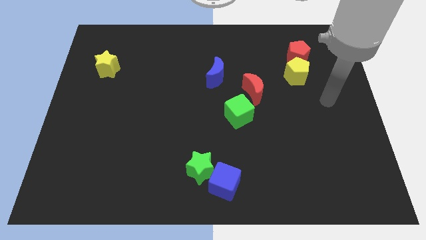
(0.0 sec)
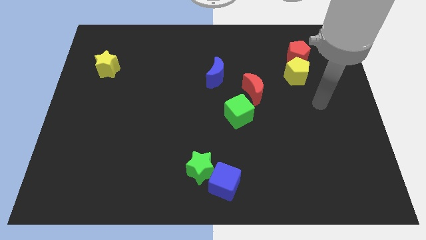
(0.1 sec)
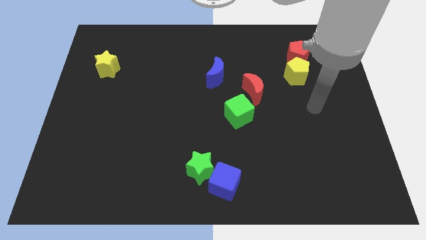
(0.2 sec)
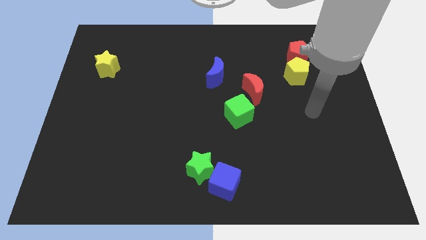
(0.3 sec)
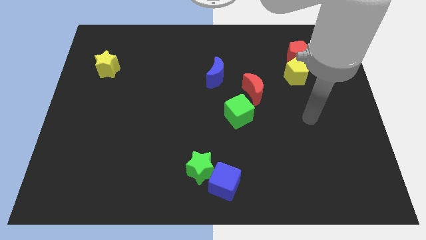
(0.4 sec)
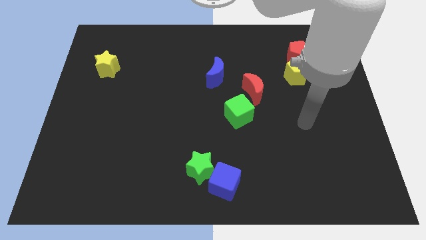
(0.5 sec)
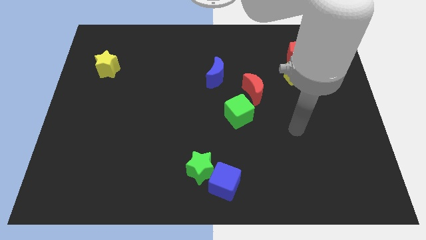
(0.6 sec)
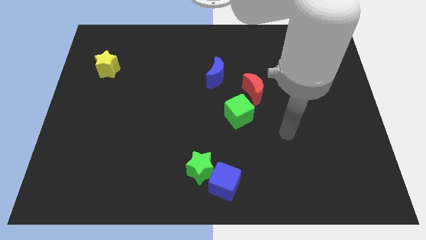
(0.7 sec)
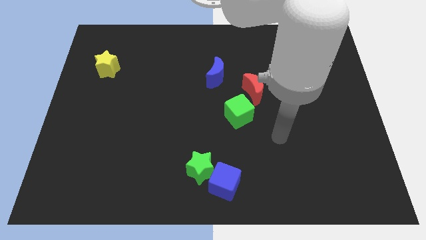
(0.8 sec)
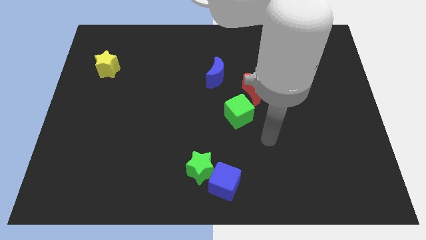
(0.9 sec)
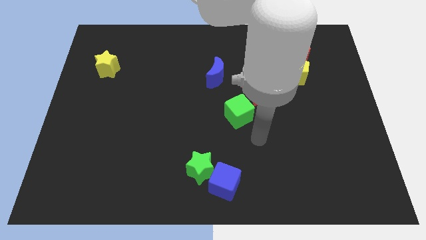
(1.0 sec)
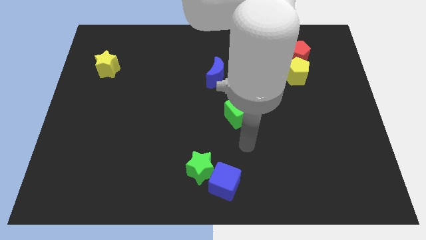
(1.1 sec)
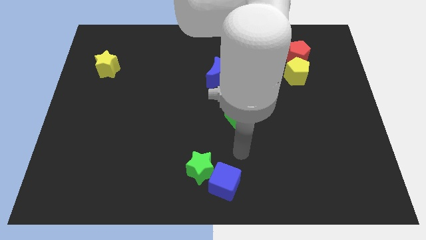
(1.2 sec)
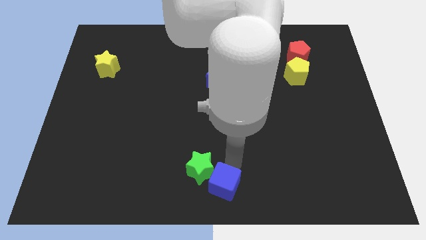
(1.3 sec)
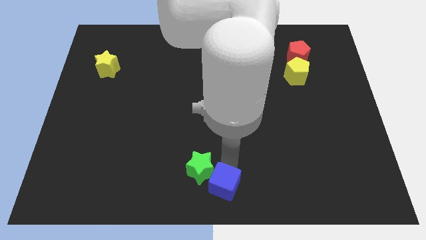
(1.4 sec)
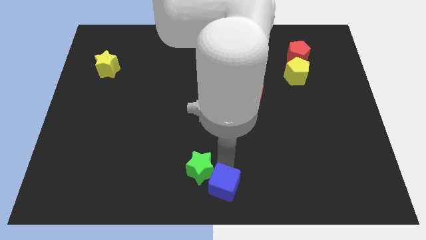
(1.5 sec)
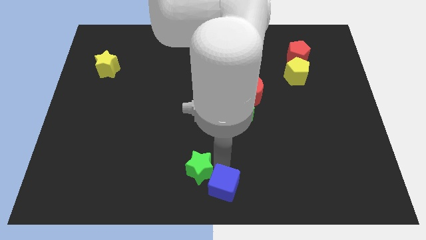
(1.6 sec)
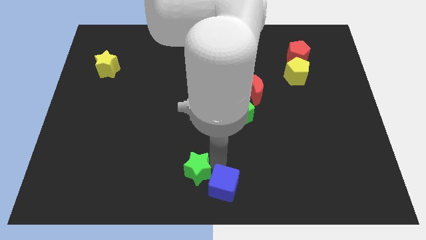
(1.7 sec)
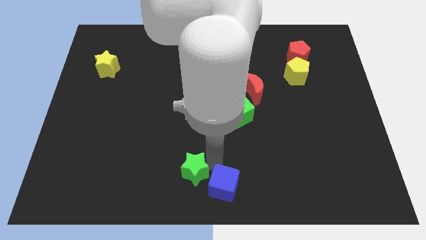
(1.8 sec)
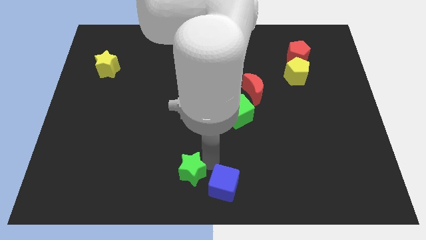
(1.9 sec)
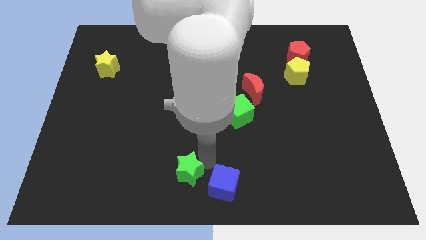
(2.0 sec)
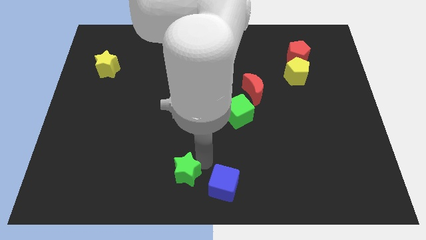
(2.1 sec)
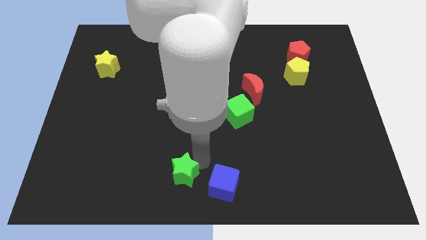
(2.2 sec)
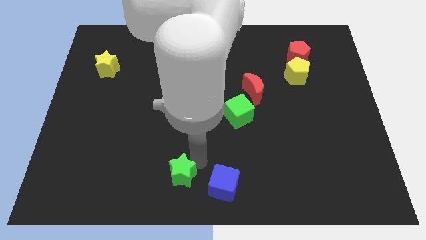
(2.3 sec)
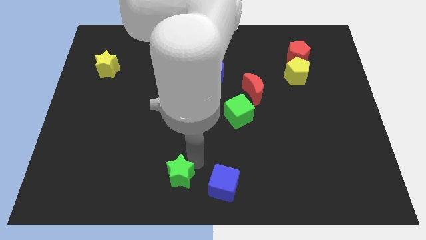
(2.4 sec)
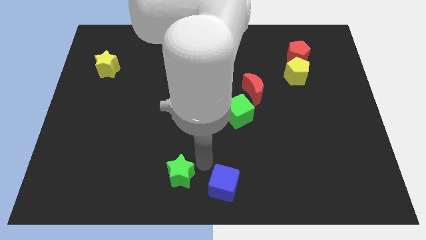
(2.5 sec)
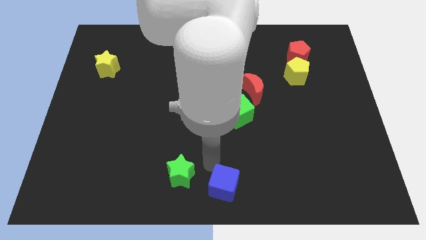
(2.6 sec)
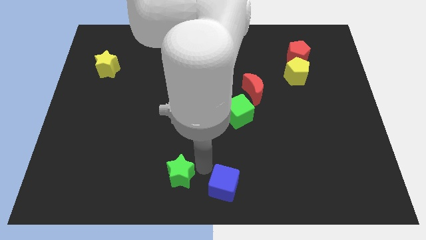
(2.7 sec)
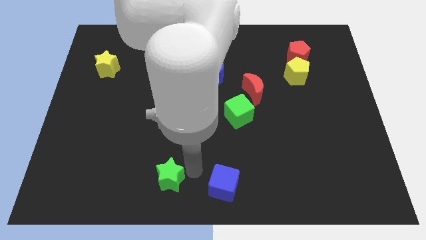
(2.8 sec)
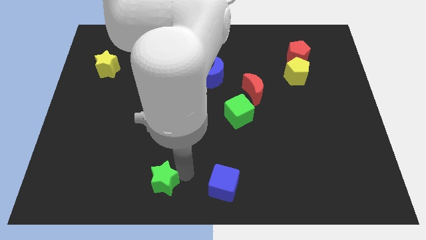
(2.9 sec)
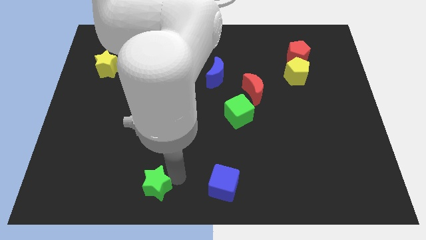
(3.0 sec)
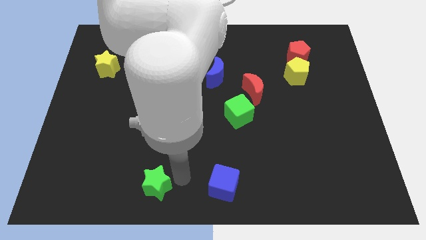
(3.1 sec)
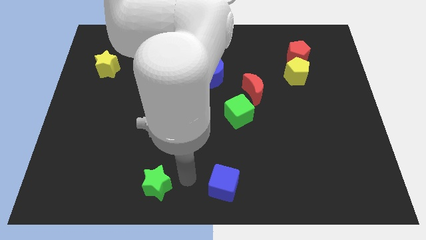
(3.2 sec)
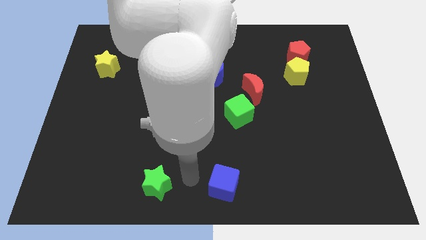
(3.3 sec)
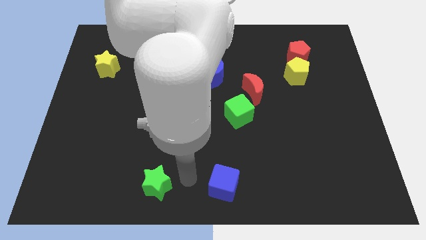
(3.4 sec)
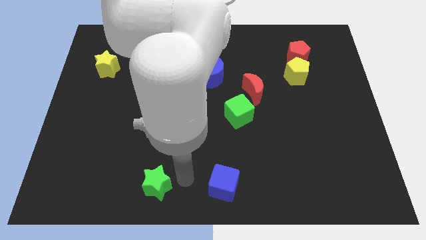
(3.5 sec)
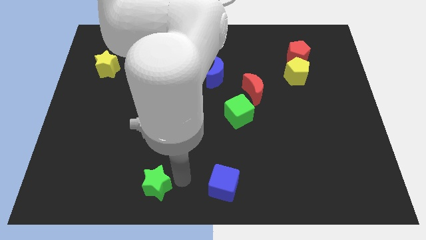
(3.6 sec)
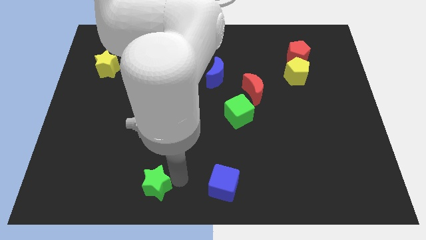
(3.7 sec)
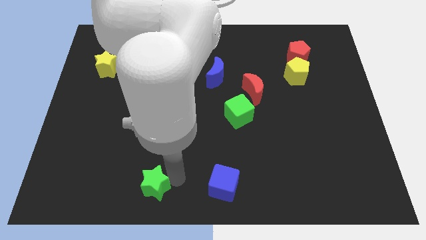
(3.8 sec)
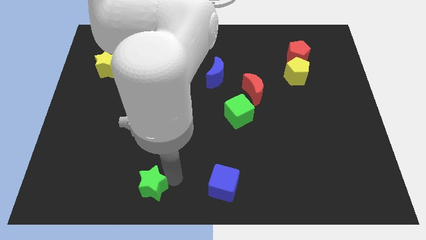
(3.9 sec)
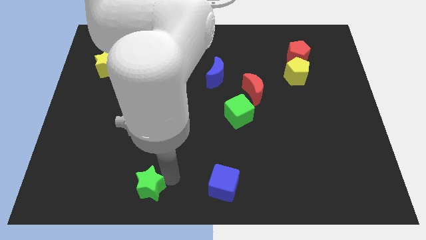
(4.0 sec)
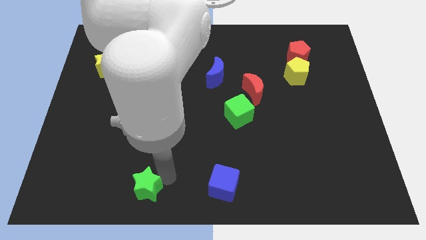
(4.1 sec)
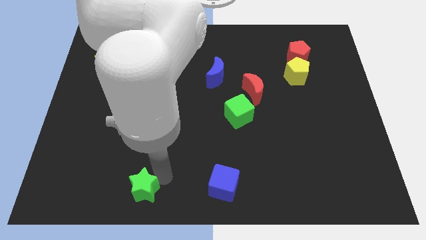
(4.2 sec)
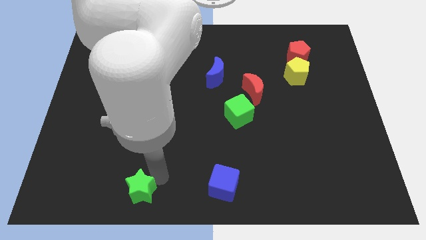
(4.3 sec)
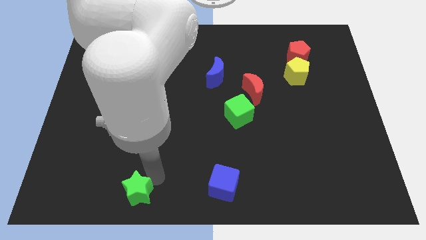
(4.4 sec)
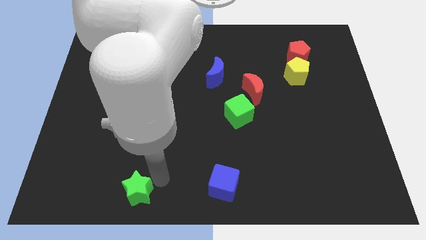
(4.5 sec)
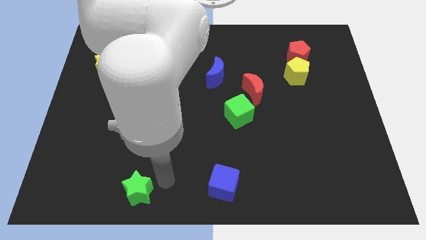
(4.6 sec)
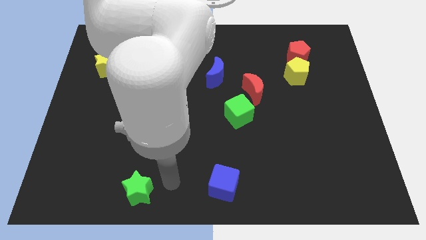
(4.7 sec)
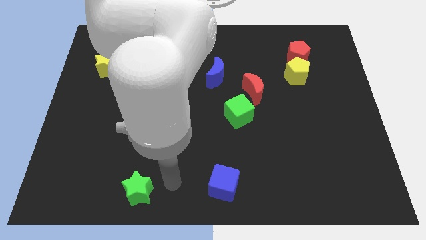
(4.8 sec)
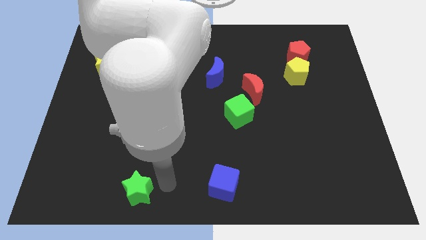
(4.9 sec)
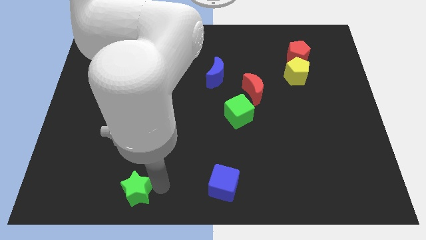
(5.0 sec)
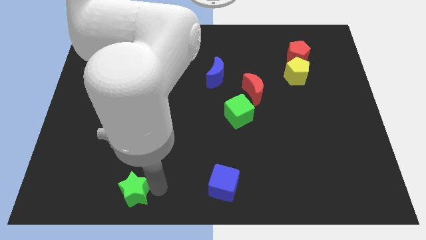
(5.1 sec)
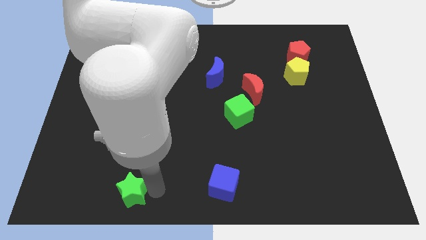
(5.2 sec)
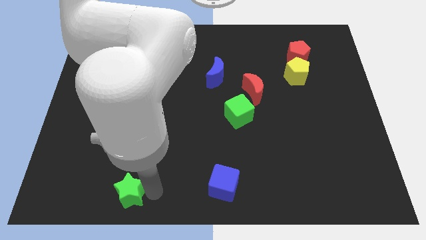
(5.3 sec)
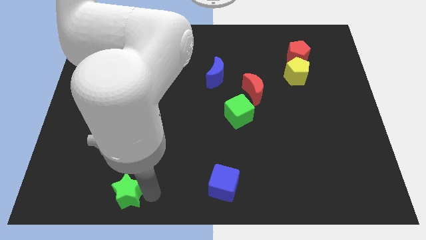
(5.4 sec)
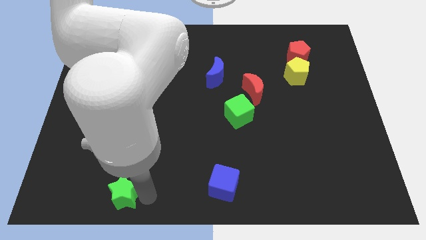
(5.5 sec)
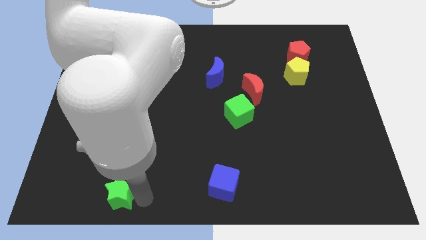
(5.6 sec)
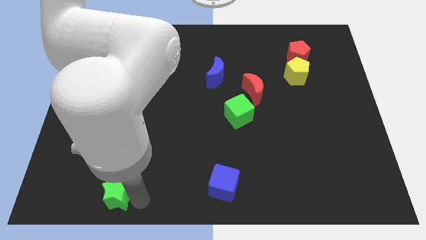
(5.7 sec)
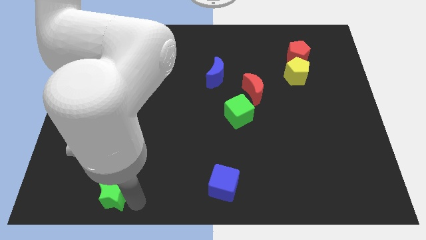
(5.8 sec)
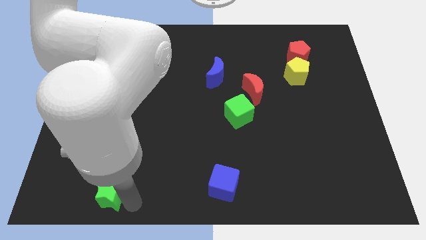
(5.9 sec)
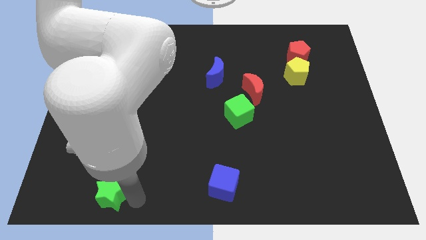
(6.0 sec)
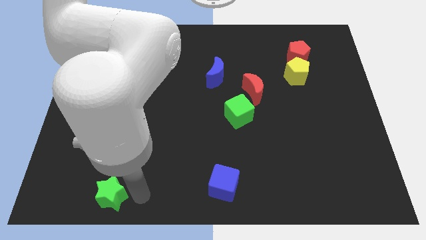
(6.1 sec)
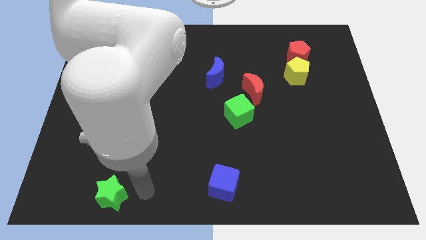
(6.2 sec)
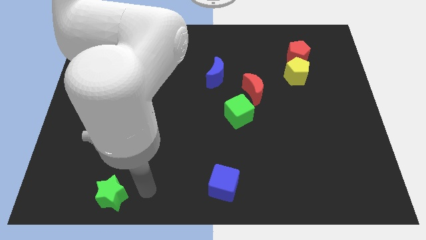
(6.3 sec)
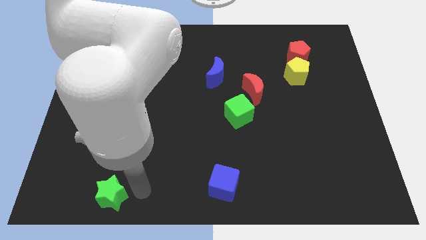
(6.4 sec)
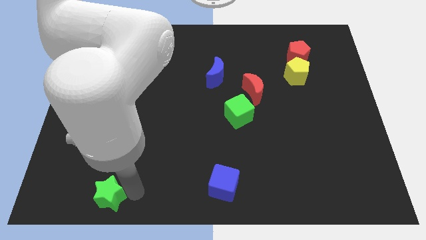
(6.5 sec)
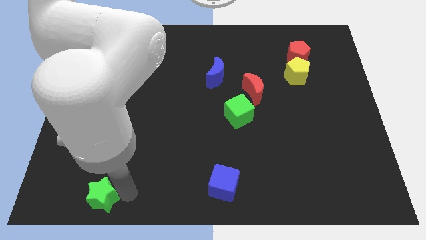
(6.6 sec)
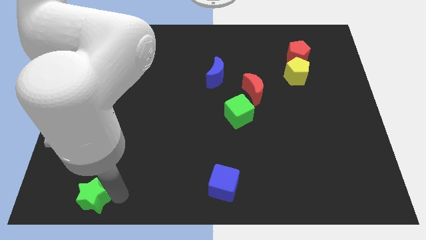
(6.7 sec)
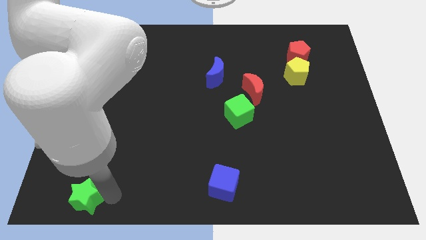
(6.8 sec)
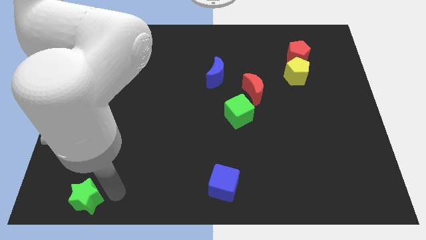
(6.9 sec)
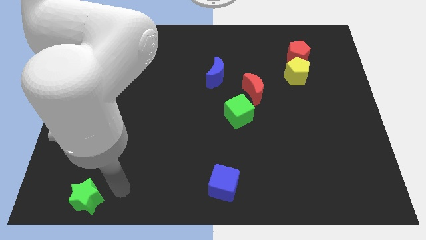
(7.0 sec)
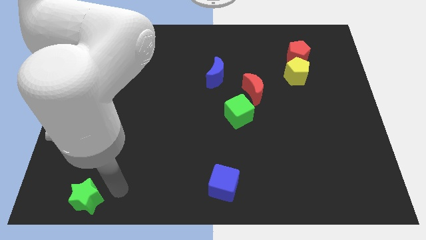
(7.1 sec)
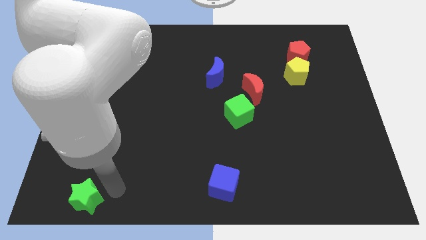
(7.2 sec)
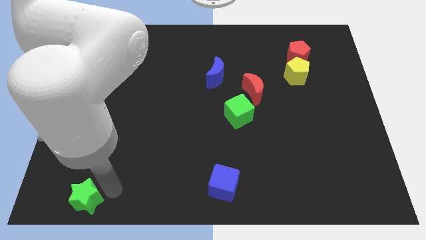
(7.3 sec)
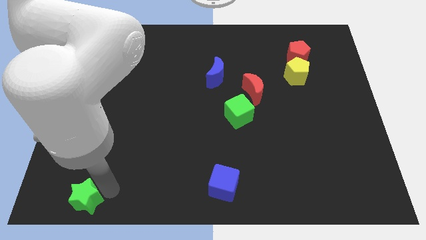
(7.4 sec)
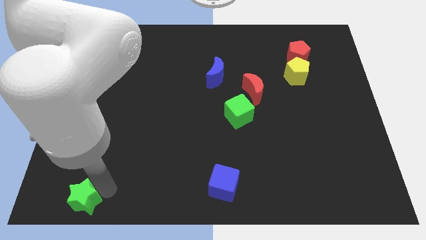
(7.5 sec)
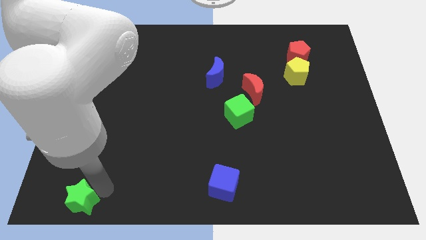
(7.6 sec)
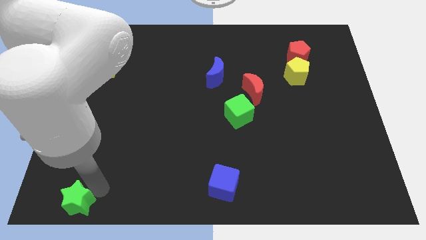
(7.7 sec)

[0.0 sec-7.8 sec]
push the green star to the bottom left corner
